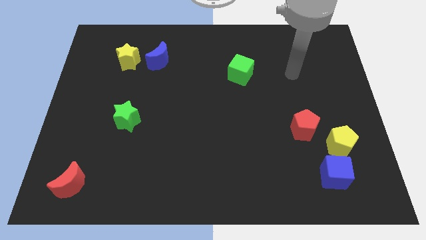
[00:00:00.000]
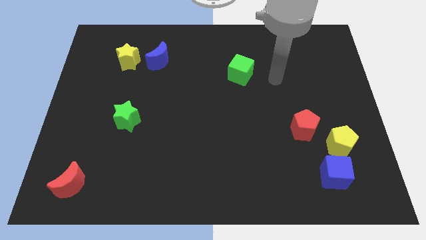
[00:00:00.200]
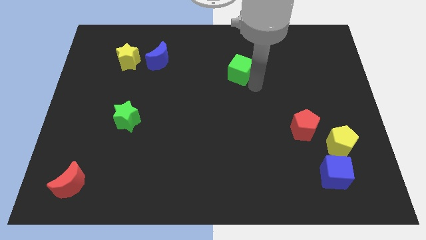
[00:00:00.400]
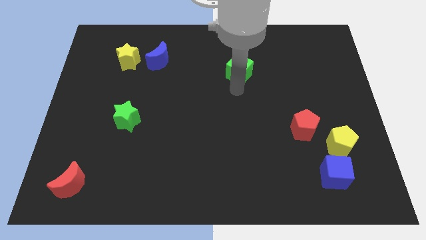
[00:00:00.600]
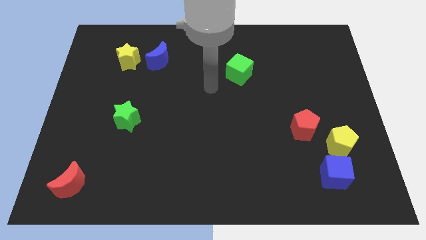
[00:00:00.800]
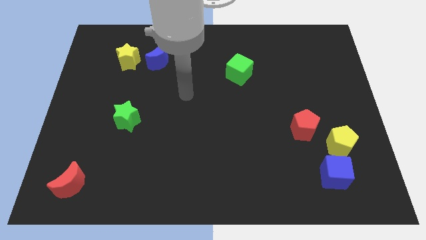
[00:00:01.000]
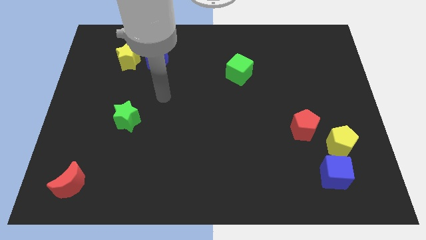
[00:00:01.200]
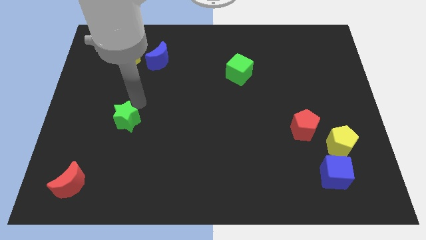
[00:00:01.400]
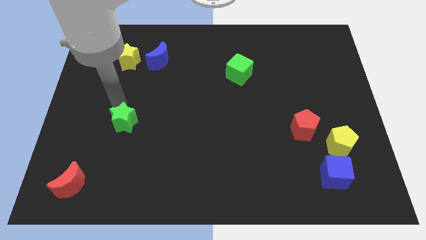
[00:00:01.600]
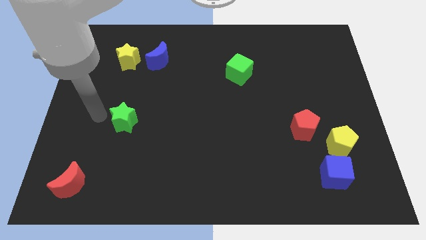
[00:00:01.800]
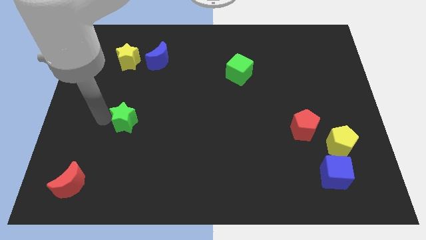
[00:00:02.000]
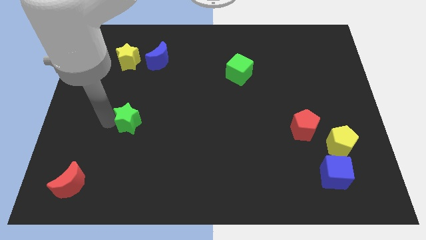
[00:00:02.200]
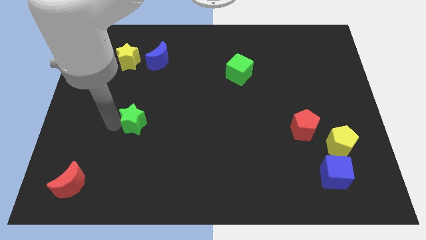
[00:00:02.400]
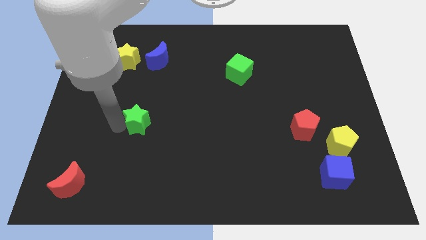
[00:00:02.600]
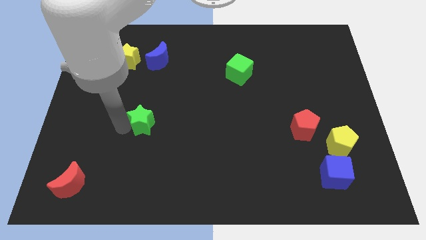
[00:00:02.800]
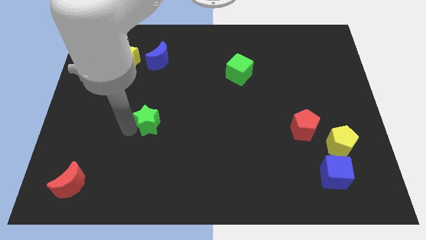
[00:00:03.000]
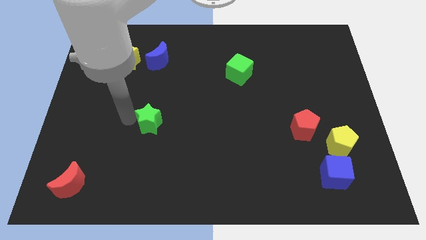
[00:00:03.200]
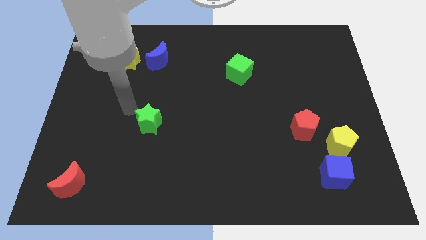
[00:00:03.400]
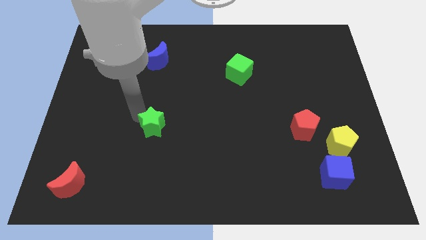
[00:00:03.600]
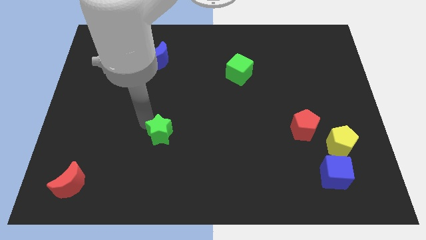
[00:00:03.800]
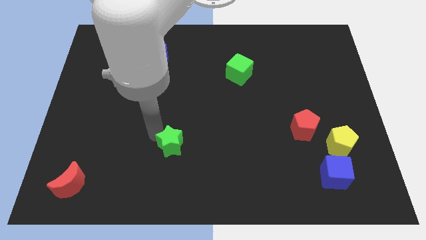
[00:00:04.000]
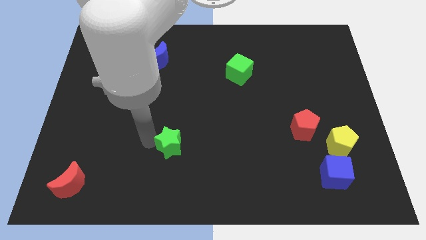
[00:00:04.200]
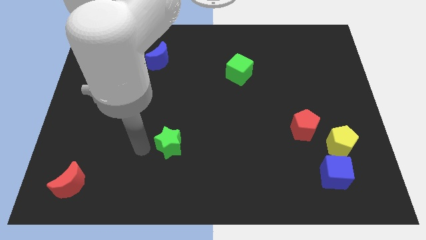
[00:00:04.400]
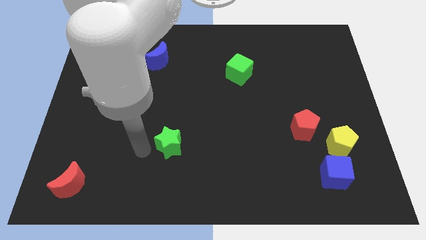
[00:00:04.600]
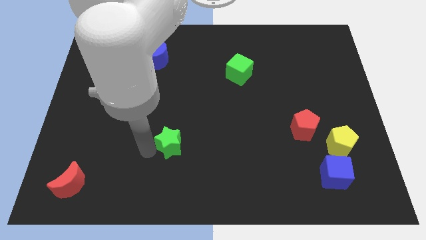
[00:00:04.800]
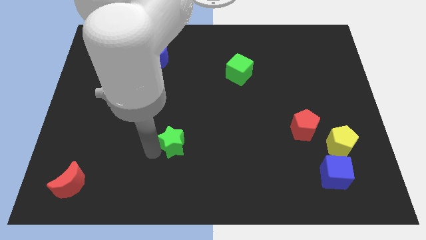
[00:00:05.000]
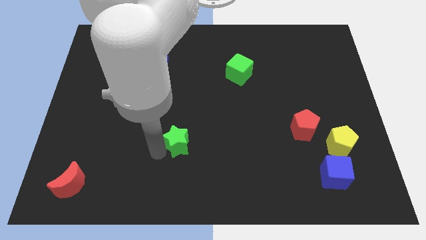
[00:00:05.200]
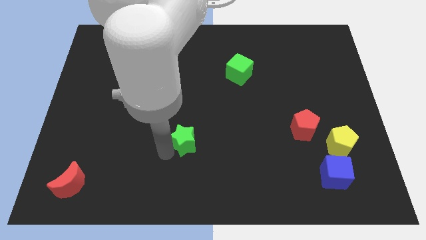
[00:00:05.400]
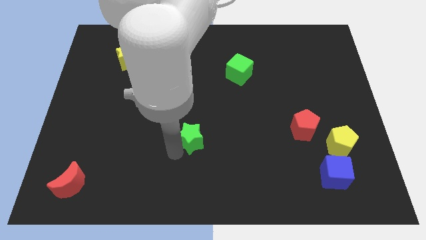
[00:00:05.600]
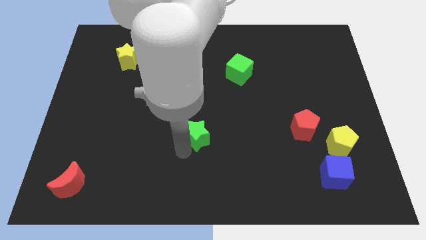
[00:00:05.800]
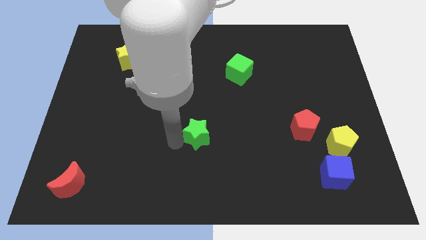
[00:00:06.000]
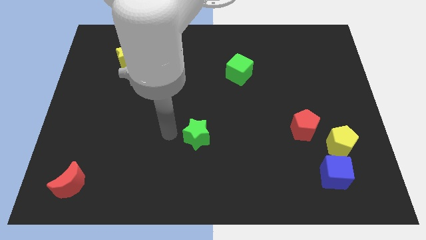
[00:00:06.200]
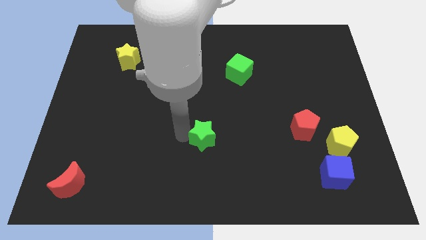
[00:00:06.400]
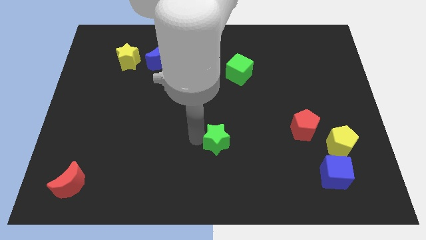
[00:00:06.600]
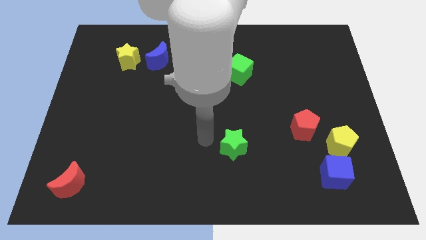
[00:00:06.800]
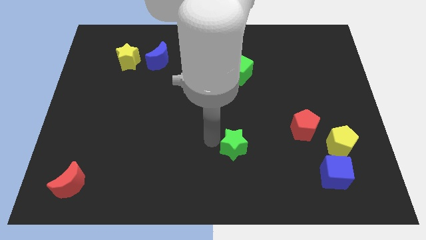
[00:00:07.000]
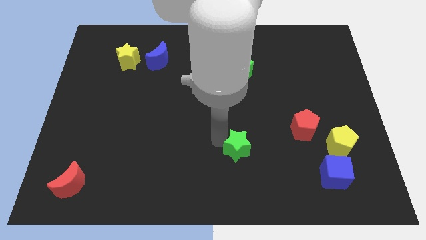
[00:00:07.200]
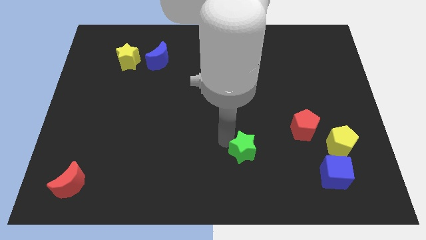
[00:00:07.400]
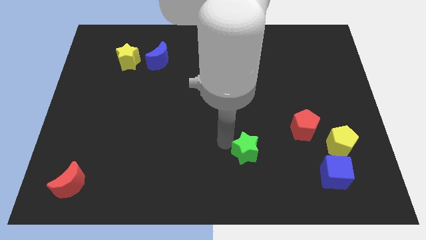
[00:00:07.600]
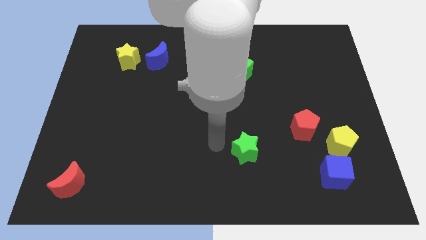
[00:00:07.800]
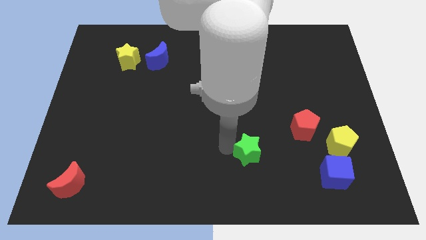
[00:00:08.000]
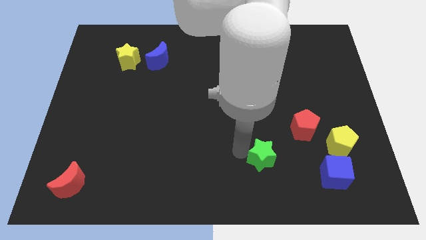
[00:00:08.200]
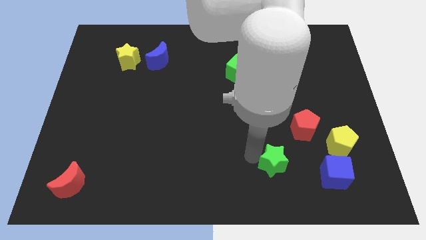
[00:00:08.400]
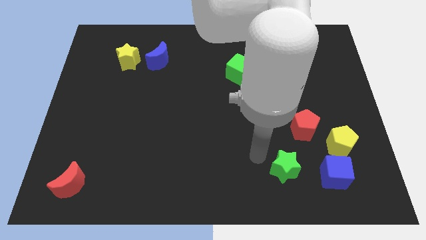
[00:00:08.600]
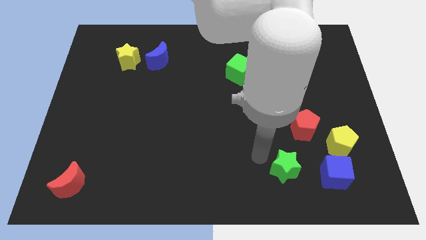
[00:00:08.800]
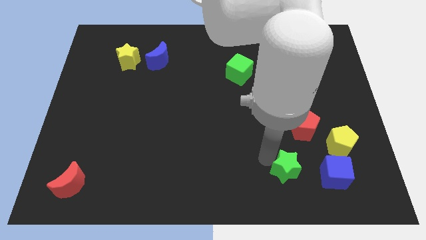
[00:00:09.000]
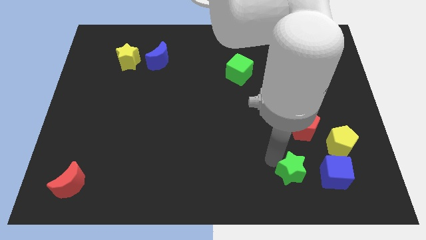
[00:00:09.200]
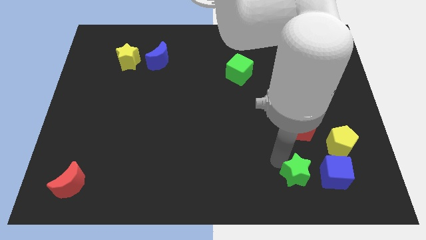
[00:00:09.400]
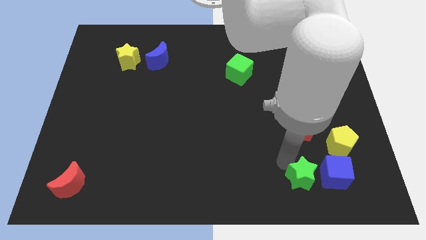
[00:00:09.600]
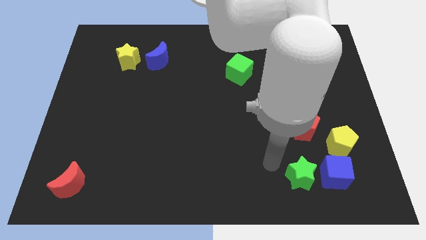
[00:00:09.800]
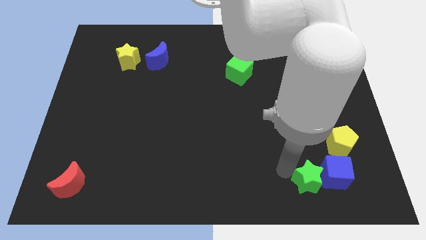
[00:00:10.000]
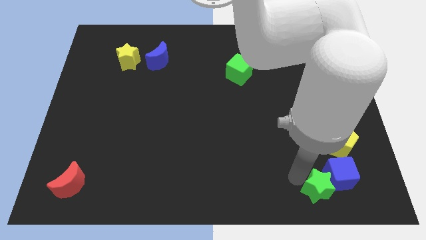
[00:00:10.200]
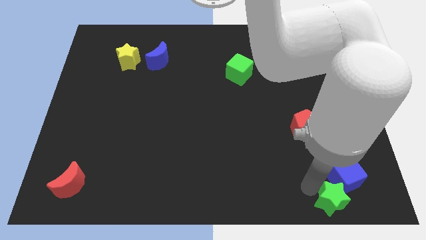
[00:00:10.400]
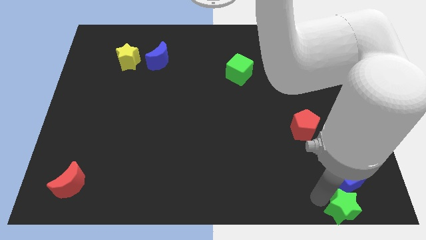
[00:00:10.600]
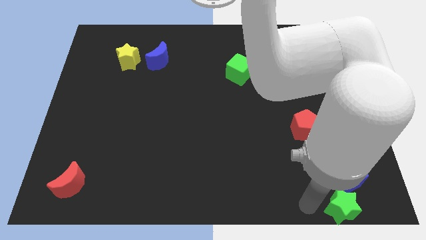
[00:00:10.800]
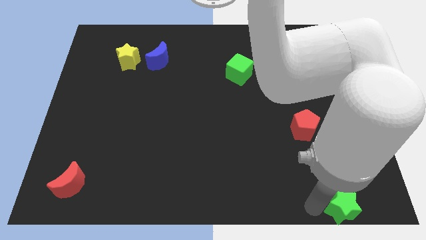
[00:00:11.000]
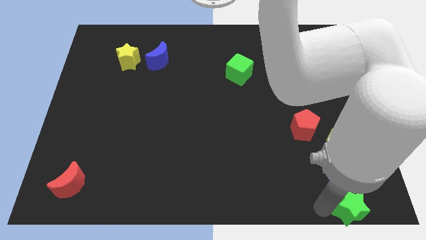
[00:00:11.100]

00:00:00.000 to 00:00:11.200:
put the green star to the lower right corner
